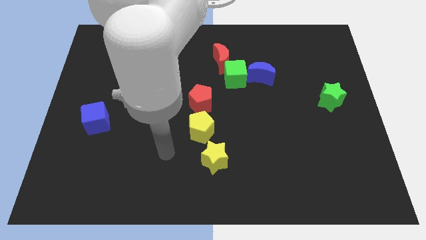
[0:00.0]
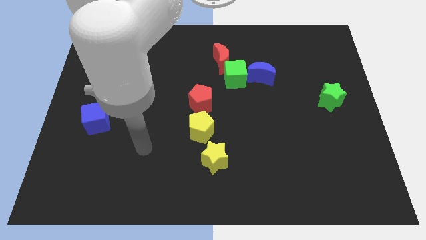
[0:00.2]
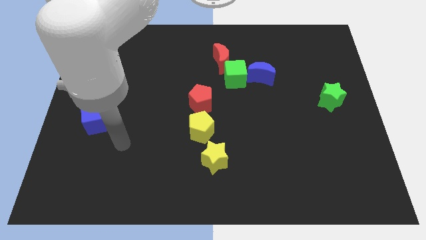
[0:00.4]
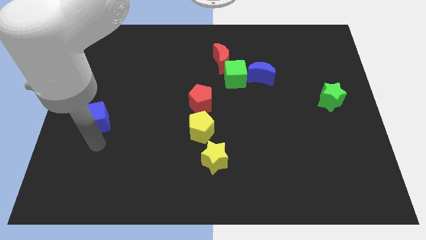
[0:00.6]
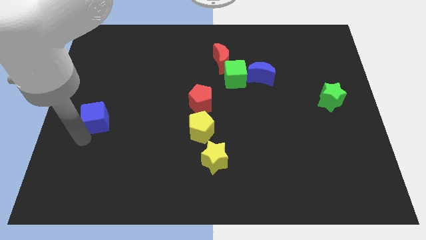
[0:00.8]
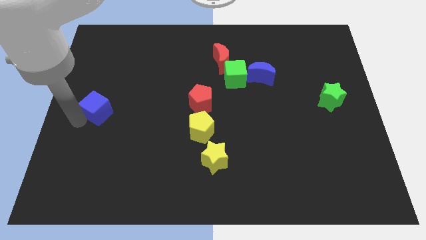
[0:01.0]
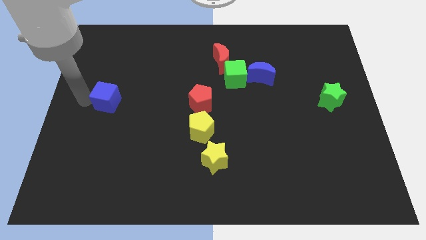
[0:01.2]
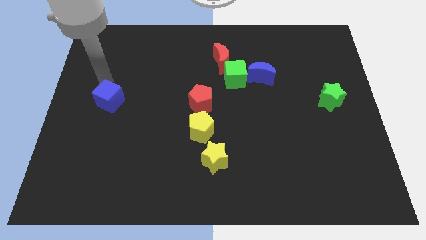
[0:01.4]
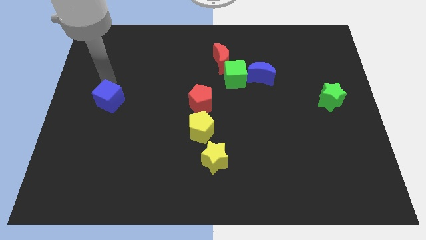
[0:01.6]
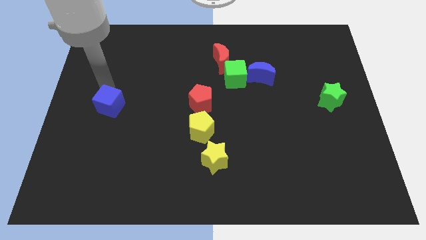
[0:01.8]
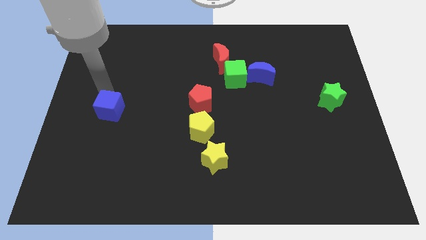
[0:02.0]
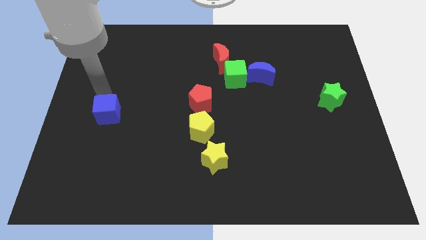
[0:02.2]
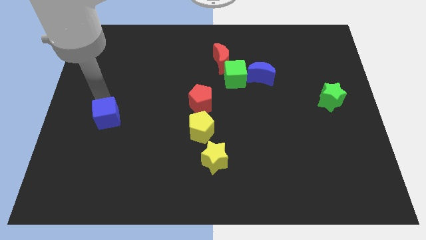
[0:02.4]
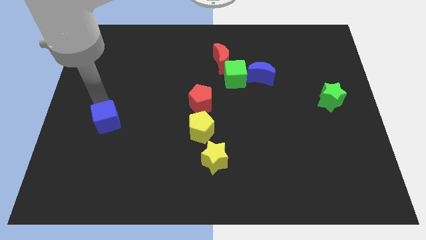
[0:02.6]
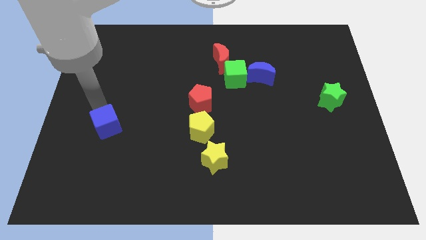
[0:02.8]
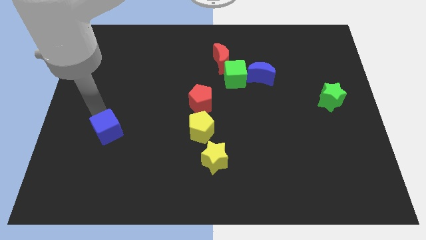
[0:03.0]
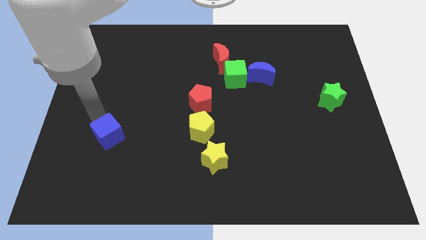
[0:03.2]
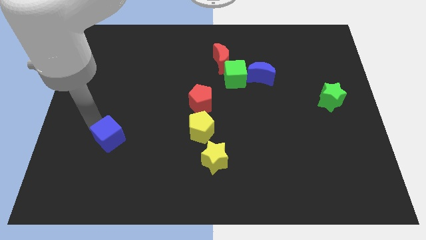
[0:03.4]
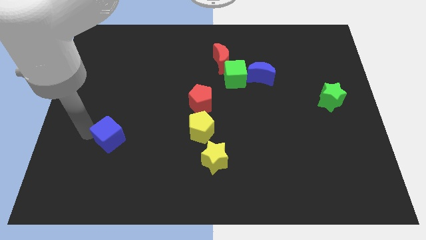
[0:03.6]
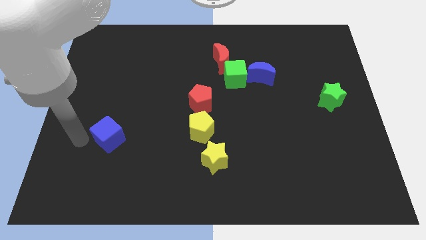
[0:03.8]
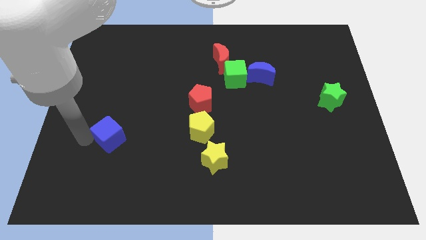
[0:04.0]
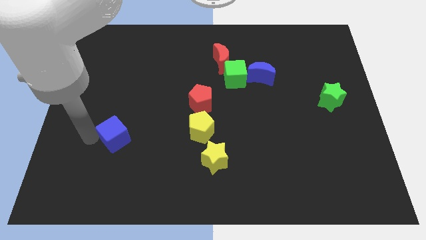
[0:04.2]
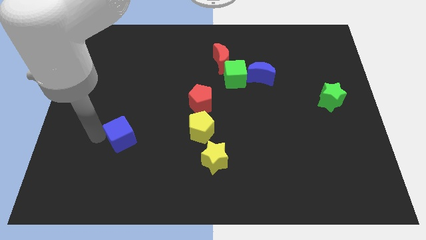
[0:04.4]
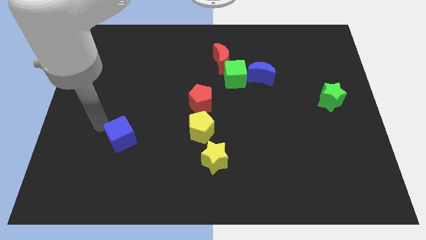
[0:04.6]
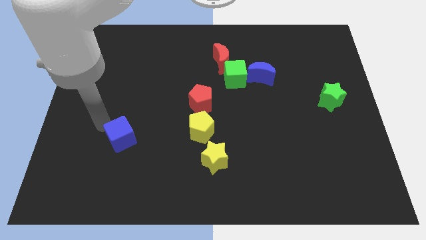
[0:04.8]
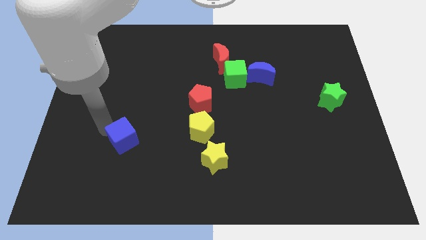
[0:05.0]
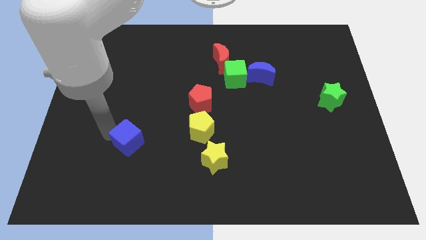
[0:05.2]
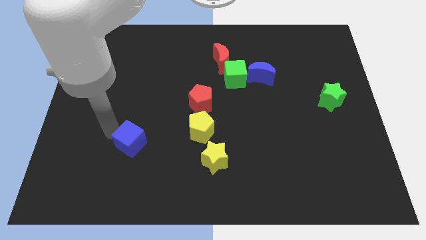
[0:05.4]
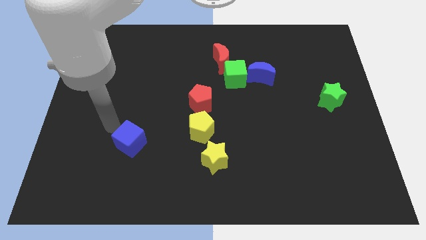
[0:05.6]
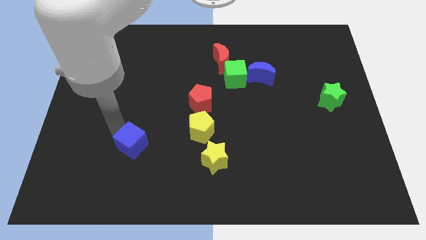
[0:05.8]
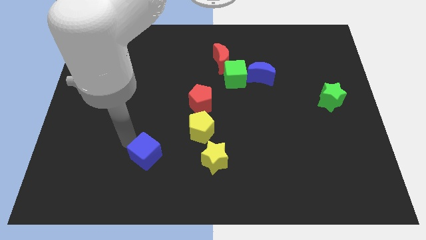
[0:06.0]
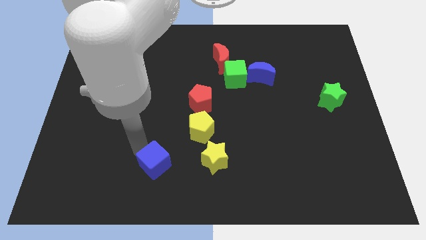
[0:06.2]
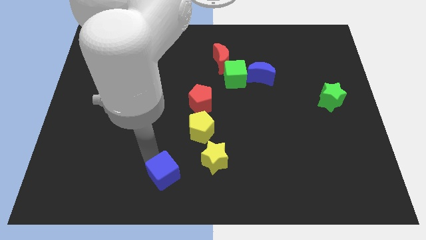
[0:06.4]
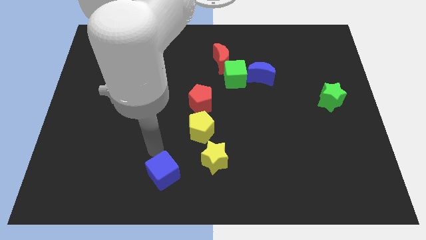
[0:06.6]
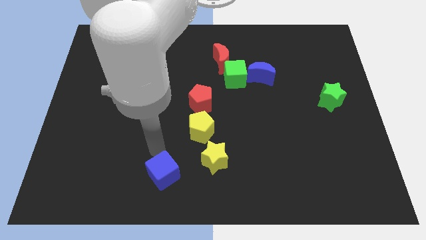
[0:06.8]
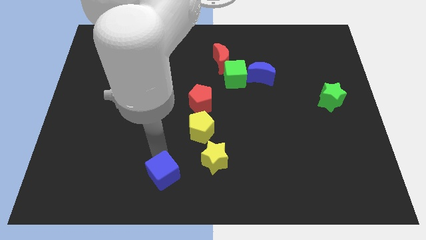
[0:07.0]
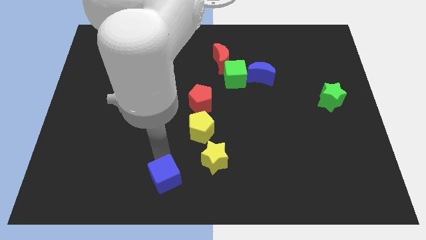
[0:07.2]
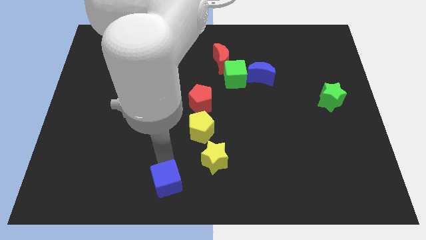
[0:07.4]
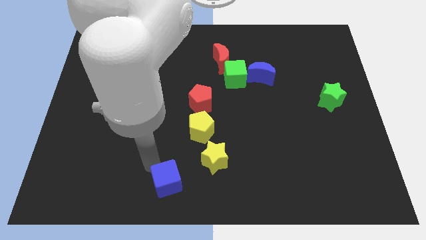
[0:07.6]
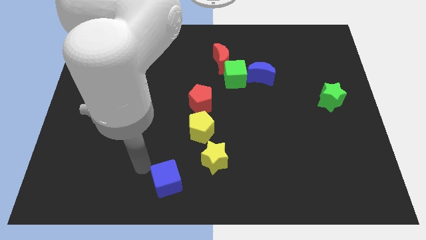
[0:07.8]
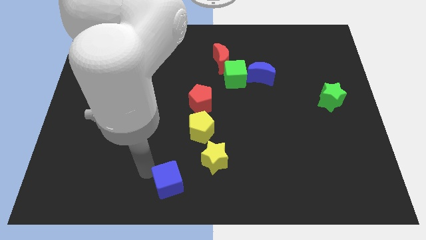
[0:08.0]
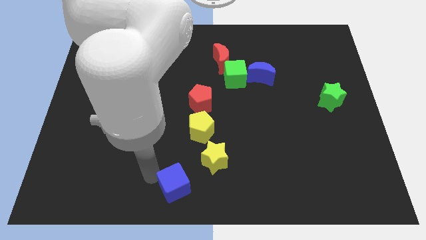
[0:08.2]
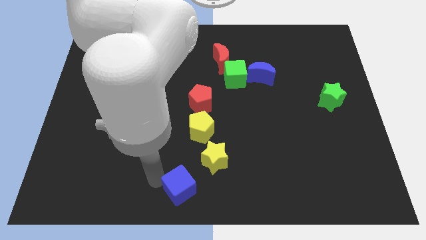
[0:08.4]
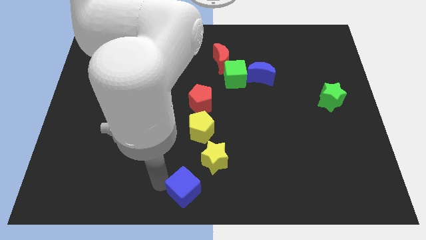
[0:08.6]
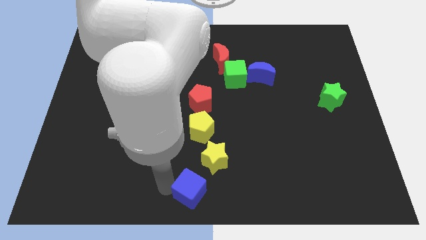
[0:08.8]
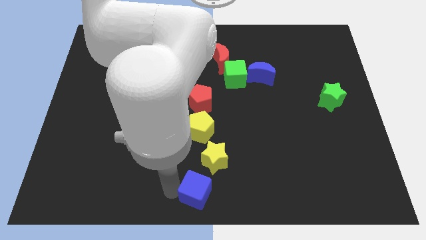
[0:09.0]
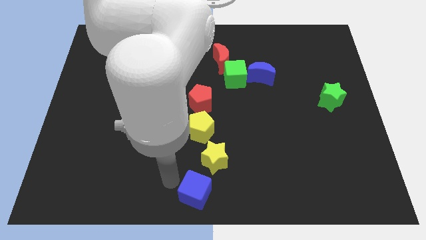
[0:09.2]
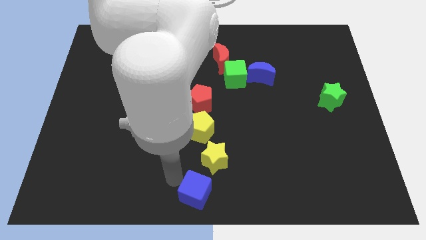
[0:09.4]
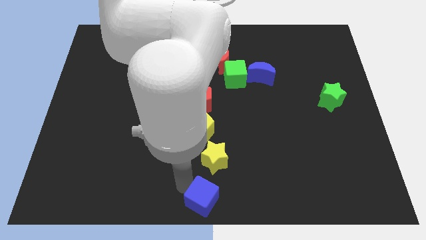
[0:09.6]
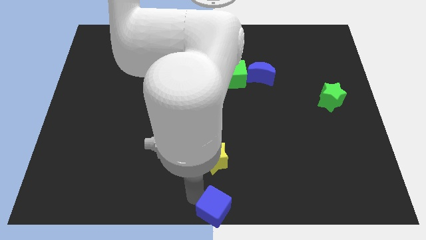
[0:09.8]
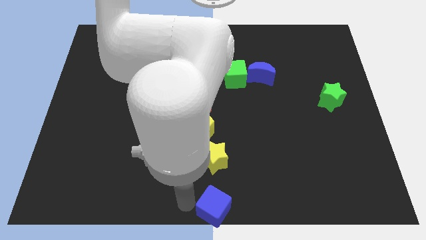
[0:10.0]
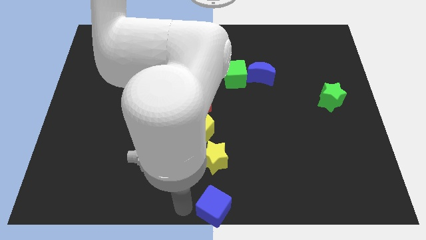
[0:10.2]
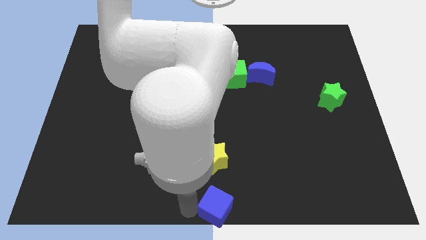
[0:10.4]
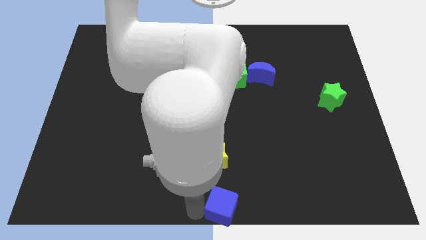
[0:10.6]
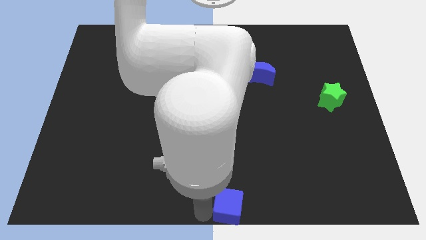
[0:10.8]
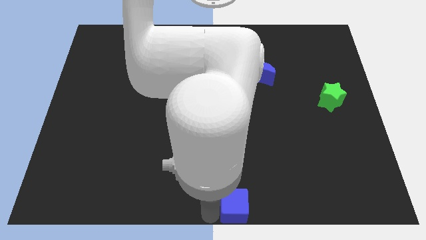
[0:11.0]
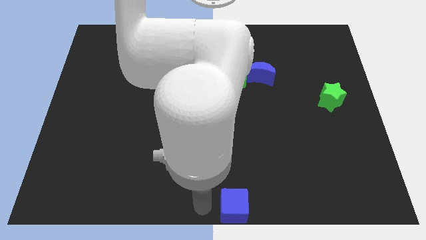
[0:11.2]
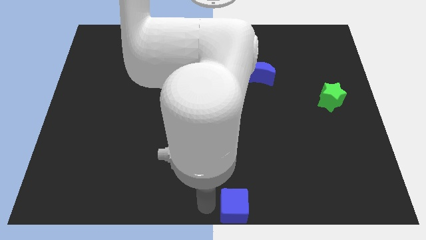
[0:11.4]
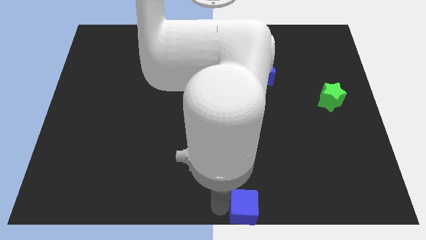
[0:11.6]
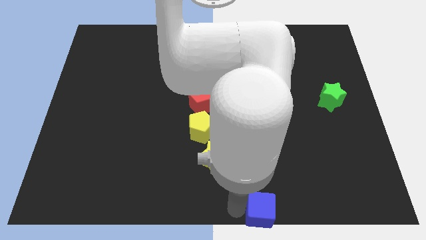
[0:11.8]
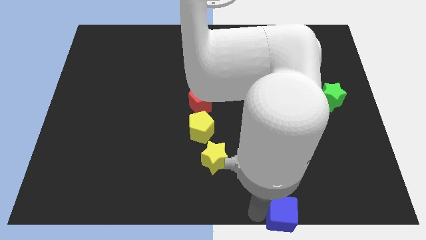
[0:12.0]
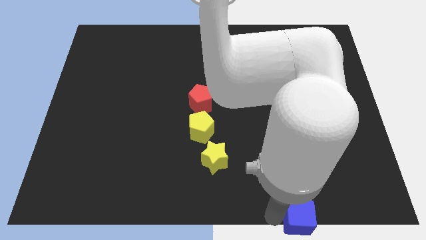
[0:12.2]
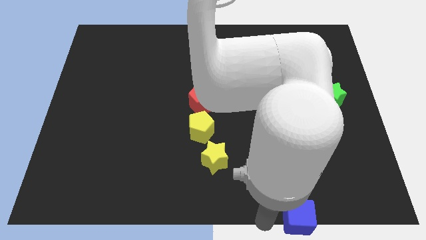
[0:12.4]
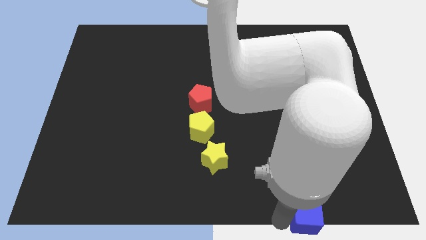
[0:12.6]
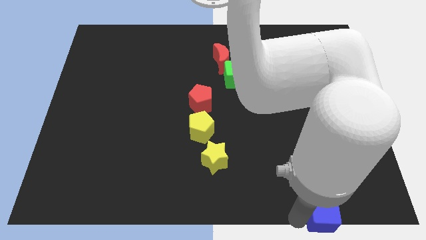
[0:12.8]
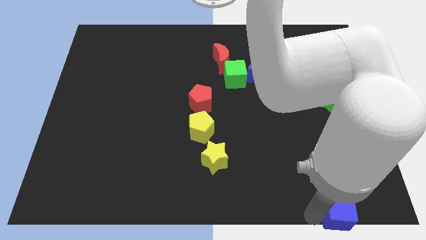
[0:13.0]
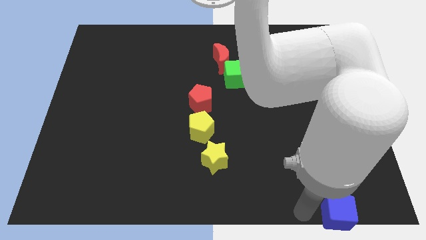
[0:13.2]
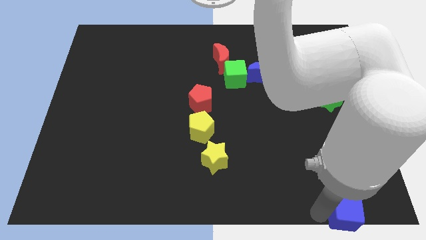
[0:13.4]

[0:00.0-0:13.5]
slide the blue cube to the bottom right
